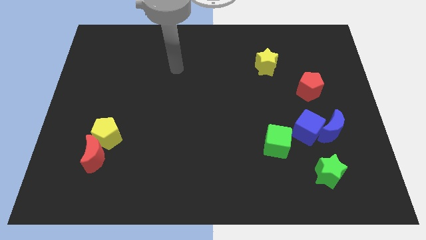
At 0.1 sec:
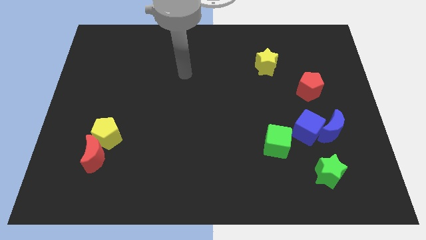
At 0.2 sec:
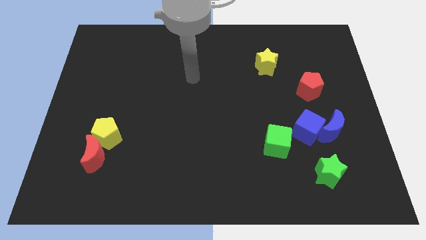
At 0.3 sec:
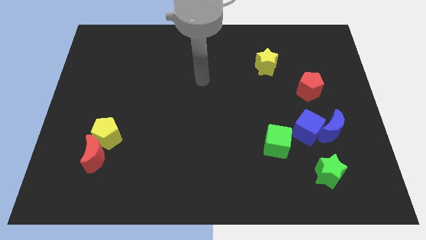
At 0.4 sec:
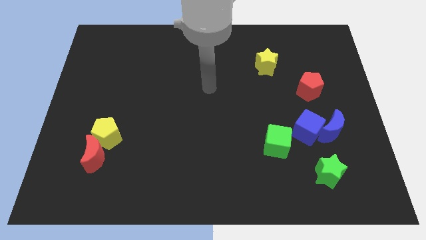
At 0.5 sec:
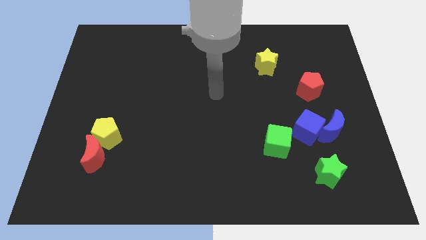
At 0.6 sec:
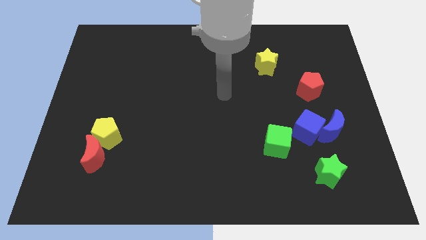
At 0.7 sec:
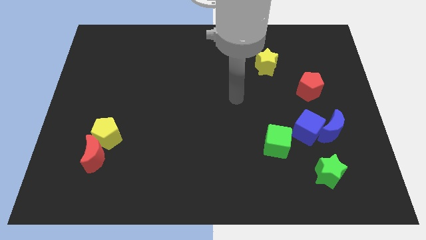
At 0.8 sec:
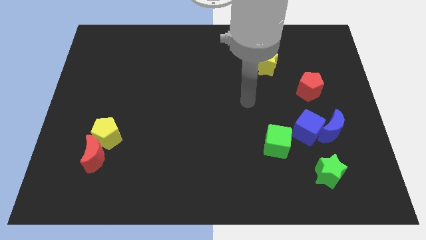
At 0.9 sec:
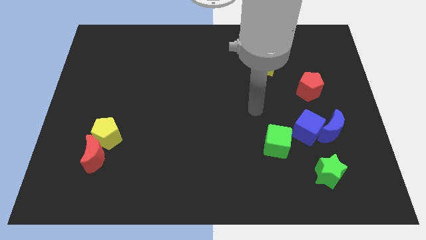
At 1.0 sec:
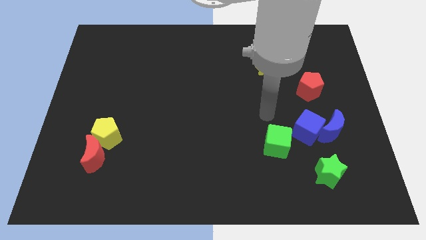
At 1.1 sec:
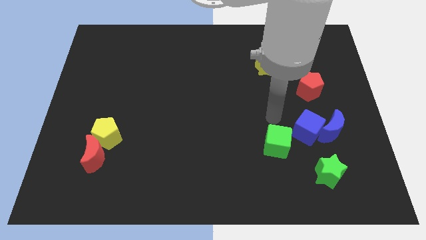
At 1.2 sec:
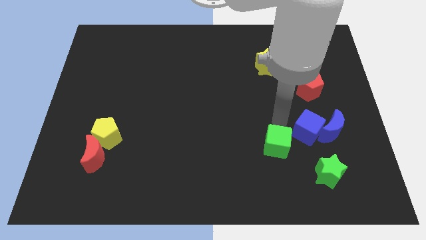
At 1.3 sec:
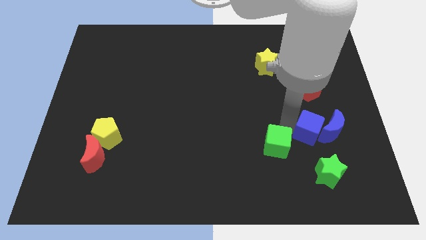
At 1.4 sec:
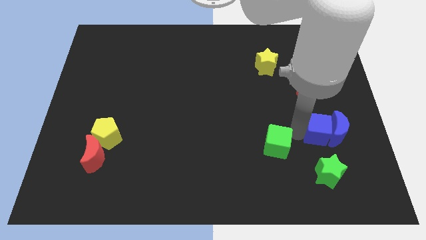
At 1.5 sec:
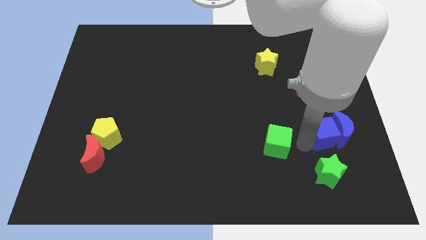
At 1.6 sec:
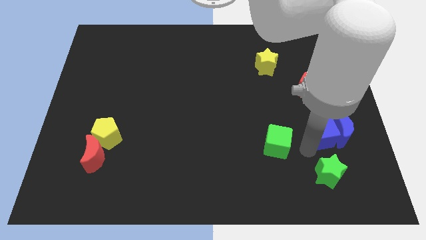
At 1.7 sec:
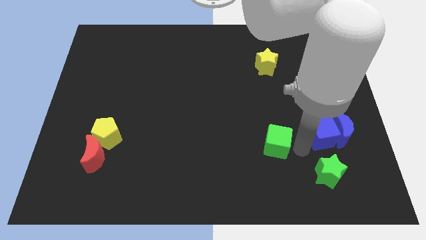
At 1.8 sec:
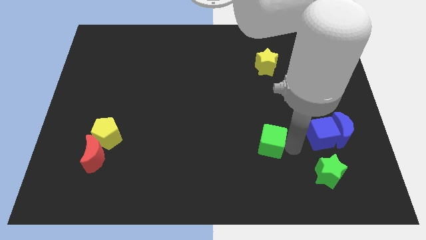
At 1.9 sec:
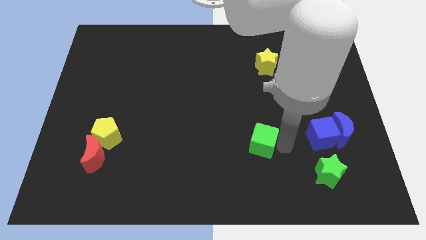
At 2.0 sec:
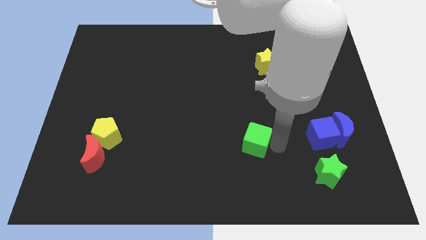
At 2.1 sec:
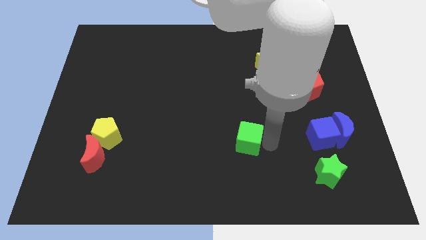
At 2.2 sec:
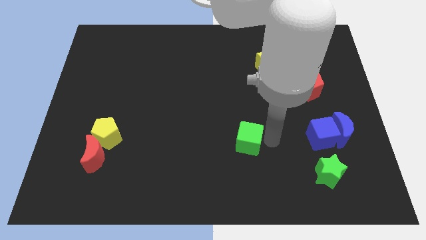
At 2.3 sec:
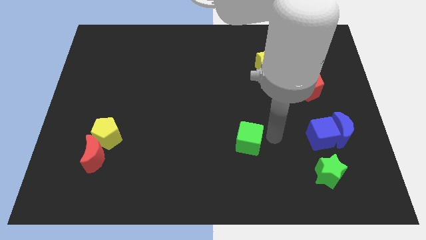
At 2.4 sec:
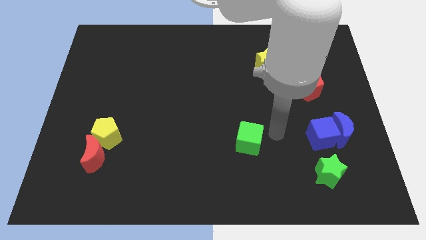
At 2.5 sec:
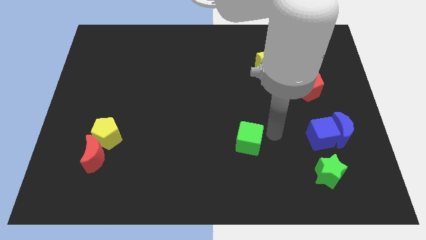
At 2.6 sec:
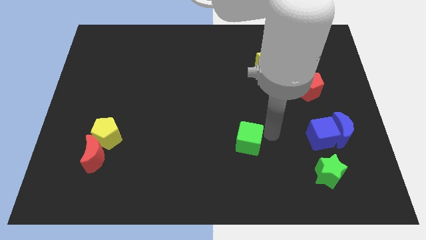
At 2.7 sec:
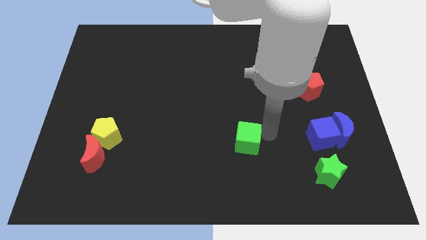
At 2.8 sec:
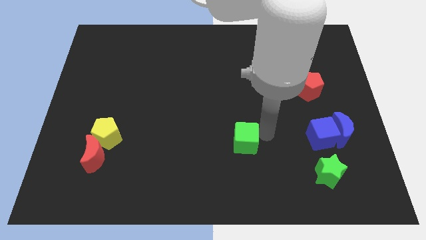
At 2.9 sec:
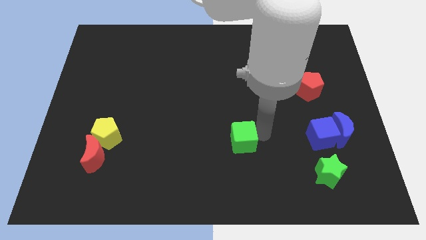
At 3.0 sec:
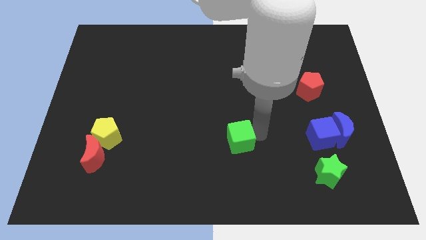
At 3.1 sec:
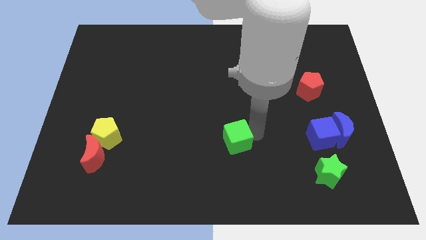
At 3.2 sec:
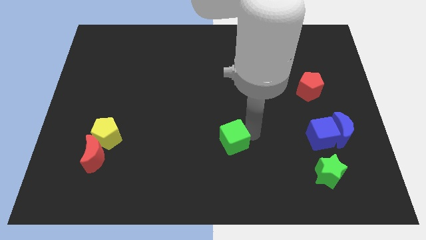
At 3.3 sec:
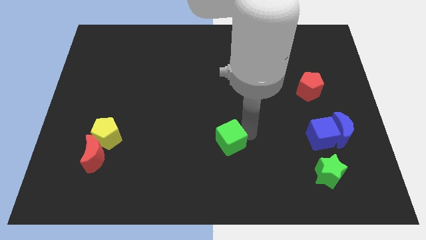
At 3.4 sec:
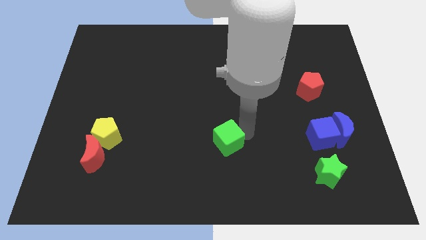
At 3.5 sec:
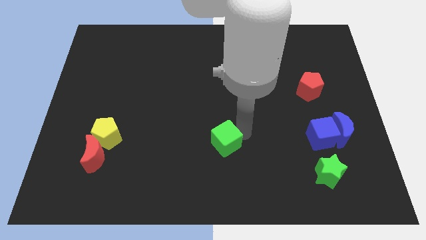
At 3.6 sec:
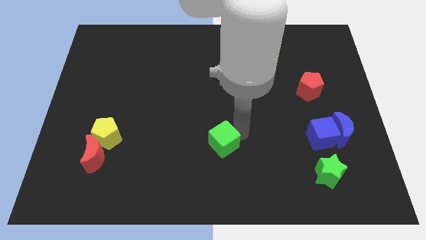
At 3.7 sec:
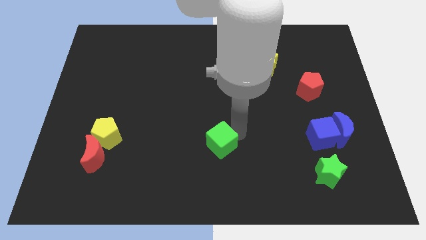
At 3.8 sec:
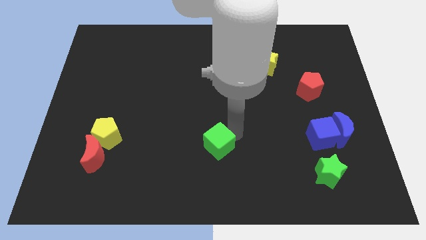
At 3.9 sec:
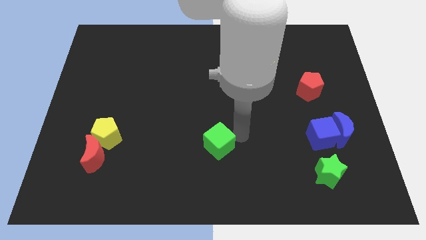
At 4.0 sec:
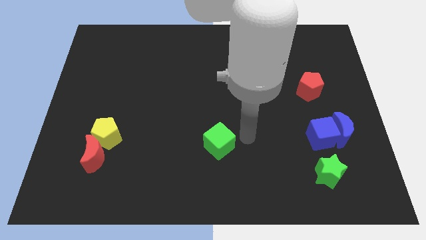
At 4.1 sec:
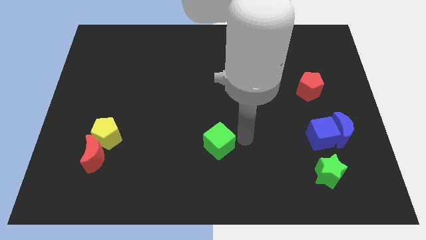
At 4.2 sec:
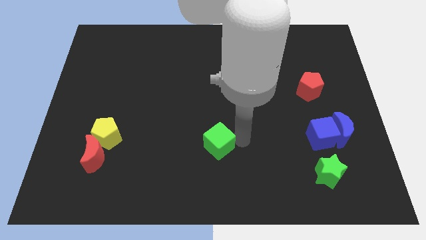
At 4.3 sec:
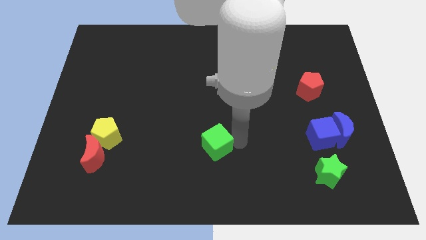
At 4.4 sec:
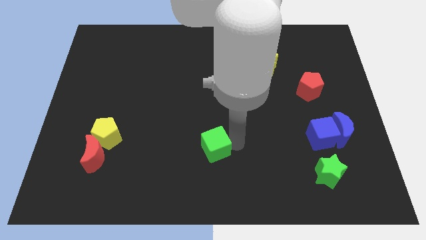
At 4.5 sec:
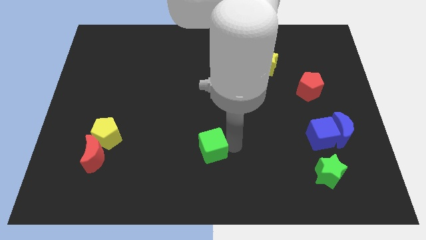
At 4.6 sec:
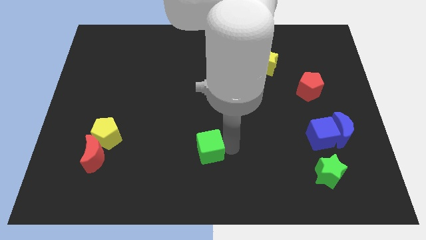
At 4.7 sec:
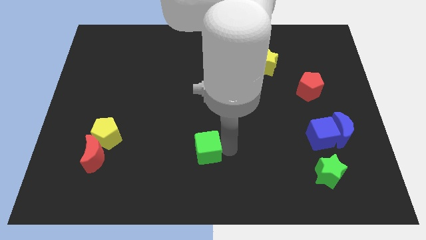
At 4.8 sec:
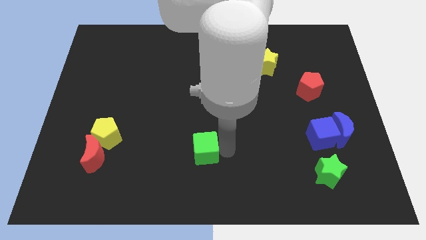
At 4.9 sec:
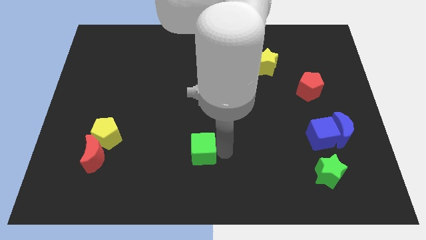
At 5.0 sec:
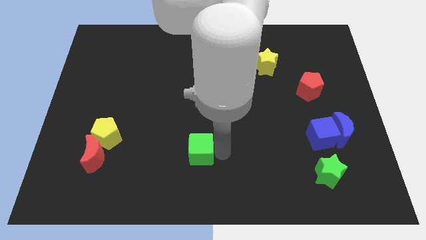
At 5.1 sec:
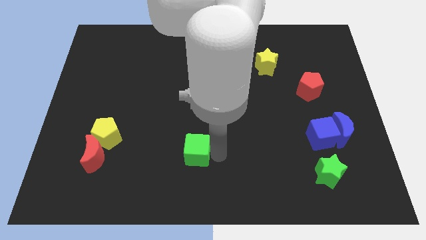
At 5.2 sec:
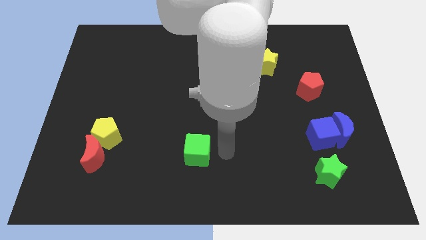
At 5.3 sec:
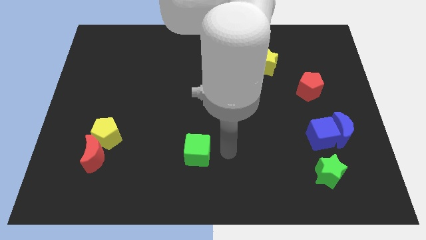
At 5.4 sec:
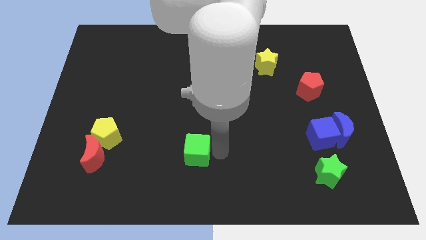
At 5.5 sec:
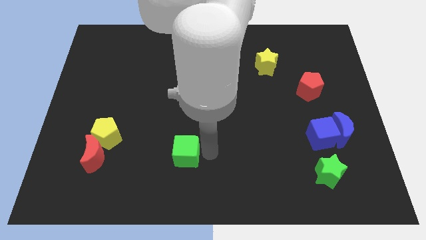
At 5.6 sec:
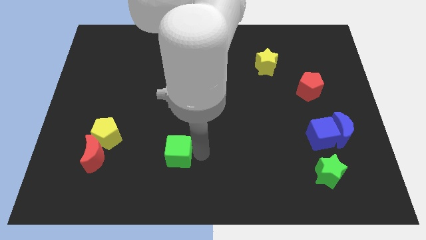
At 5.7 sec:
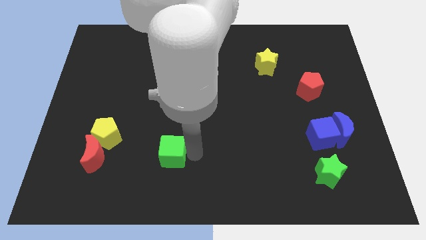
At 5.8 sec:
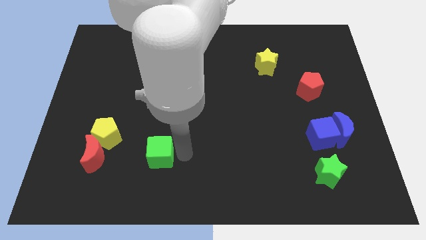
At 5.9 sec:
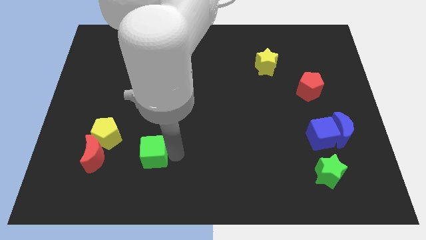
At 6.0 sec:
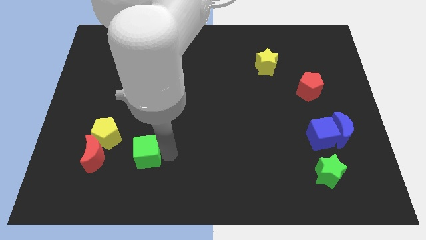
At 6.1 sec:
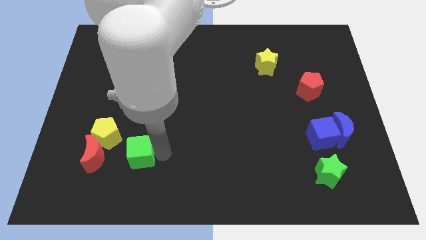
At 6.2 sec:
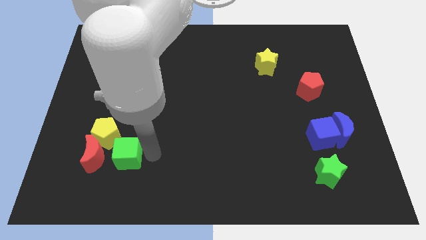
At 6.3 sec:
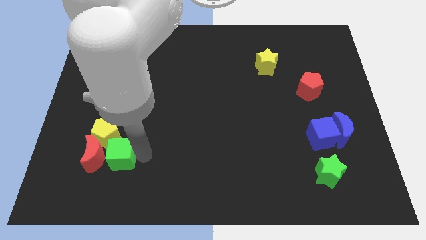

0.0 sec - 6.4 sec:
slide the green cube towards the red moon

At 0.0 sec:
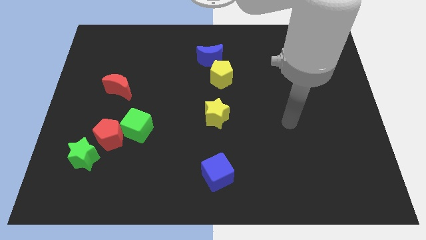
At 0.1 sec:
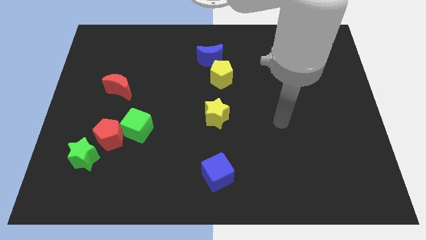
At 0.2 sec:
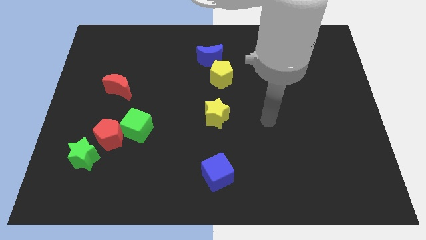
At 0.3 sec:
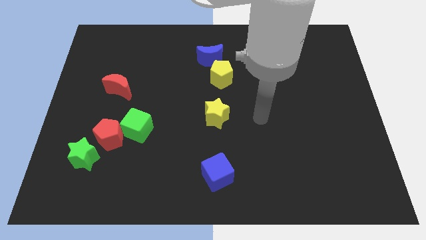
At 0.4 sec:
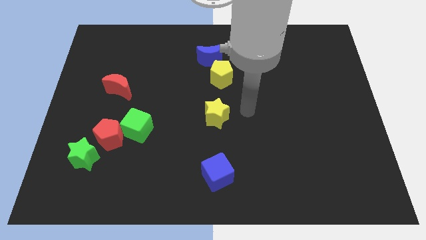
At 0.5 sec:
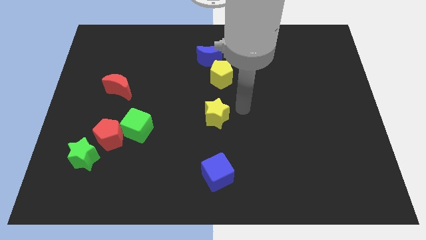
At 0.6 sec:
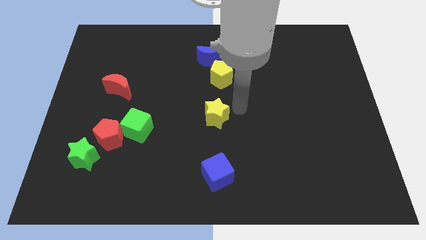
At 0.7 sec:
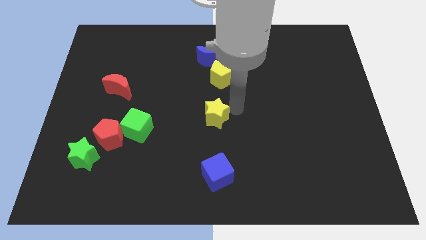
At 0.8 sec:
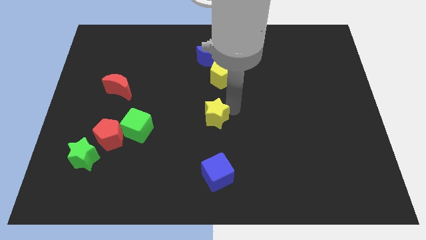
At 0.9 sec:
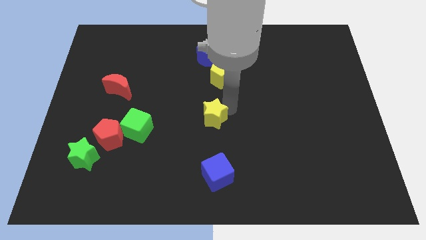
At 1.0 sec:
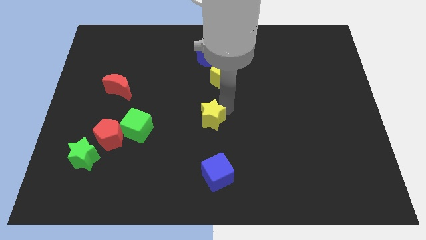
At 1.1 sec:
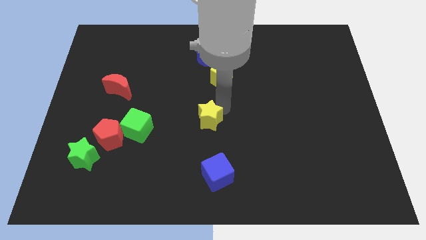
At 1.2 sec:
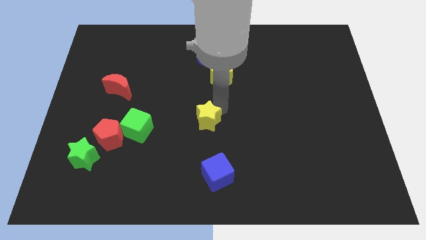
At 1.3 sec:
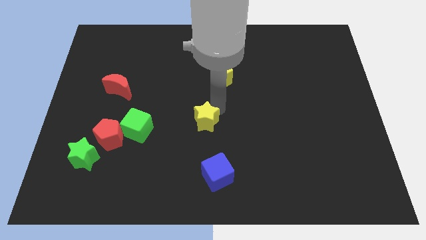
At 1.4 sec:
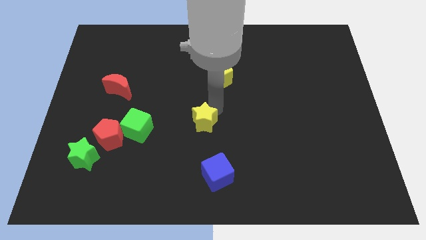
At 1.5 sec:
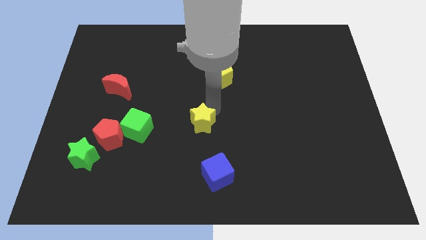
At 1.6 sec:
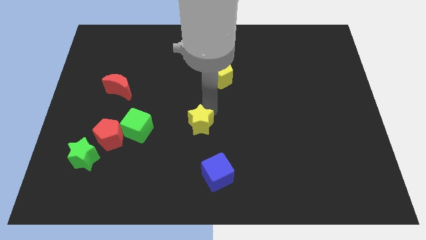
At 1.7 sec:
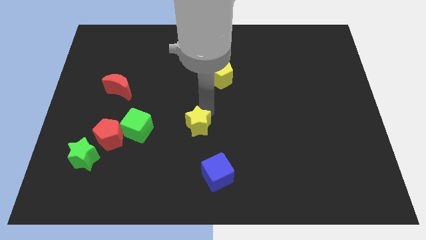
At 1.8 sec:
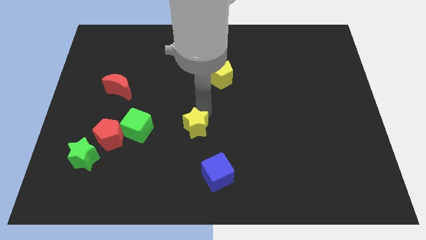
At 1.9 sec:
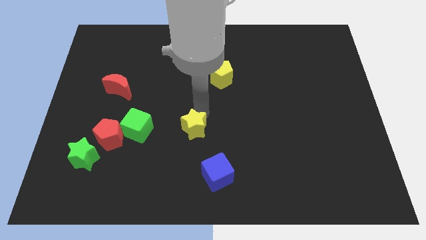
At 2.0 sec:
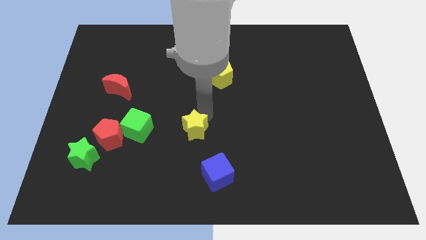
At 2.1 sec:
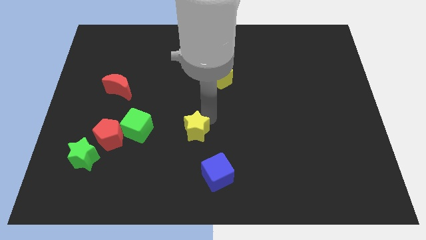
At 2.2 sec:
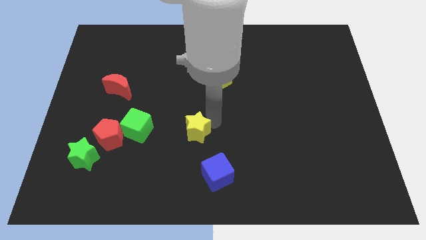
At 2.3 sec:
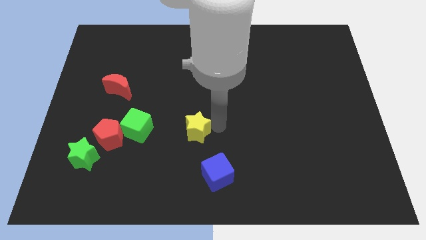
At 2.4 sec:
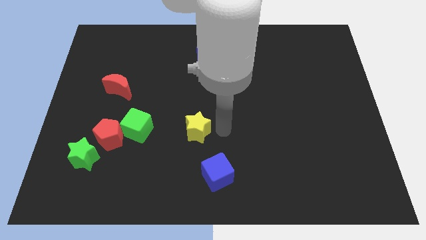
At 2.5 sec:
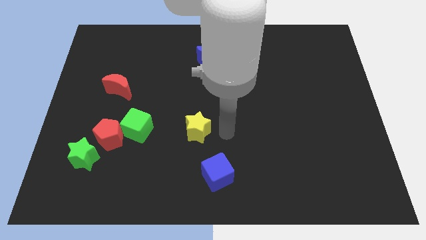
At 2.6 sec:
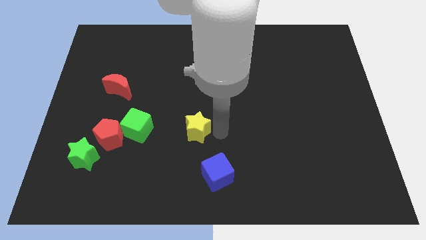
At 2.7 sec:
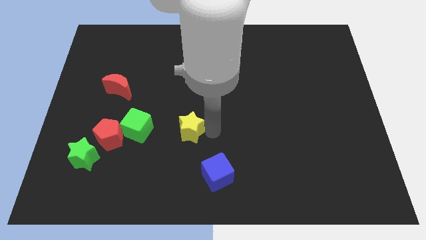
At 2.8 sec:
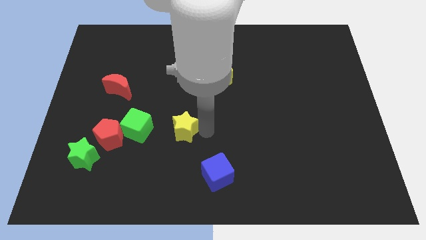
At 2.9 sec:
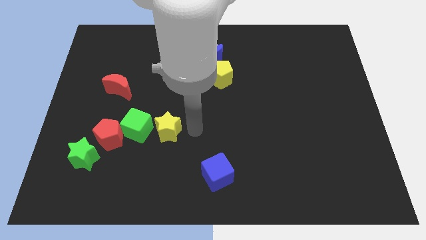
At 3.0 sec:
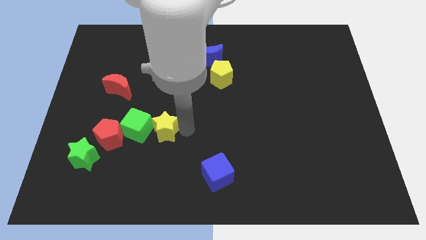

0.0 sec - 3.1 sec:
slide the yellow star next to the green cube
